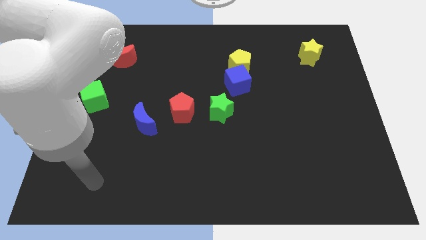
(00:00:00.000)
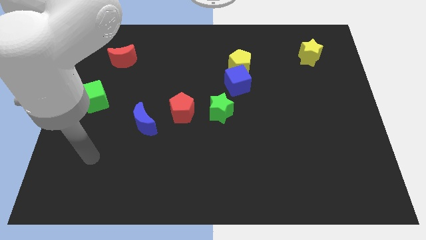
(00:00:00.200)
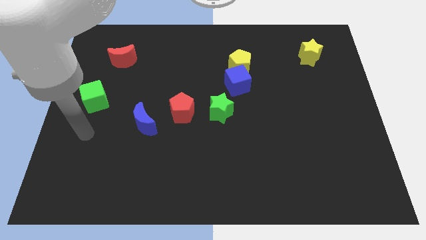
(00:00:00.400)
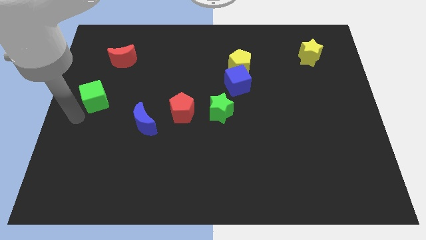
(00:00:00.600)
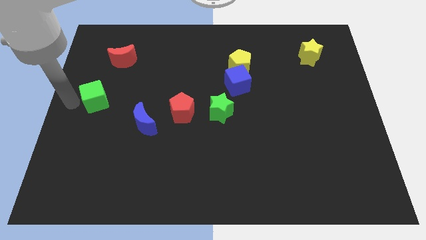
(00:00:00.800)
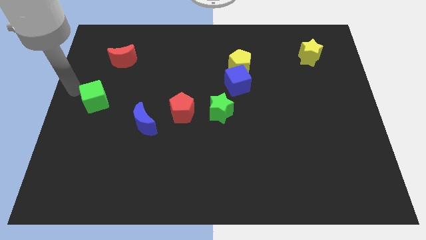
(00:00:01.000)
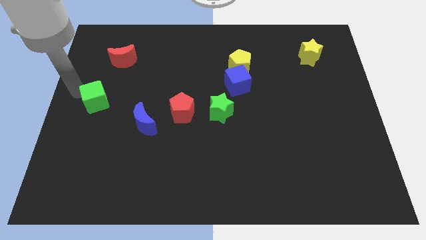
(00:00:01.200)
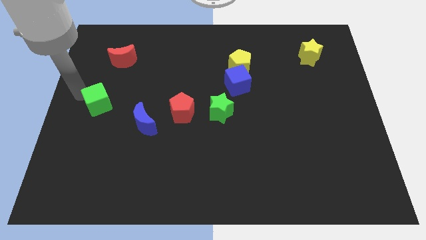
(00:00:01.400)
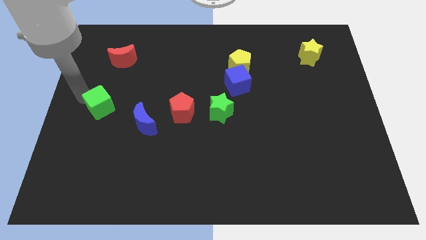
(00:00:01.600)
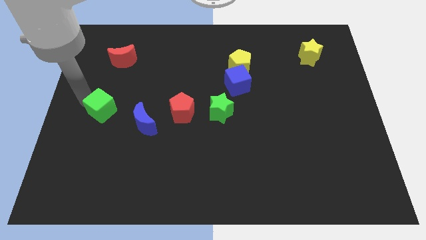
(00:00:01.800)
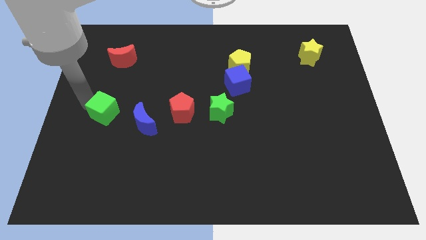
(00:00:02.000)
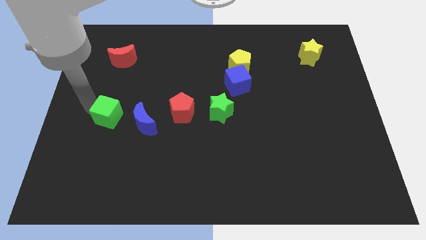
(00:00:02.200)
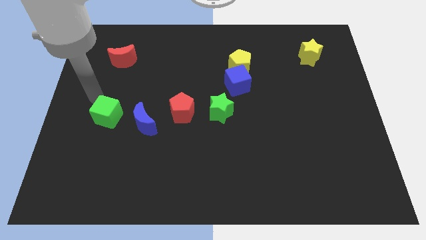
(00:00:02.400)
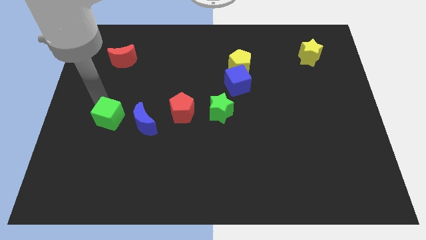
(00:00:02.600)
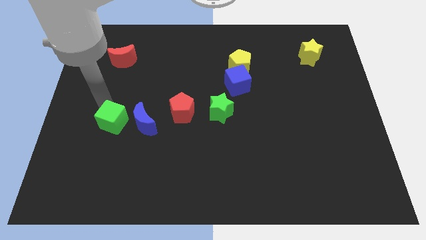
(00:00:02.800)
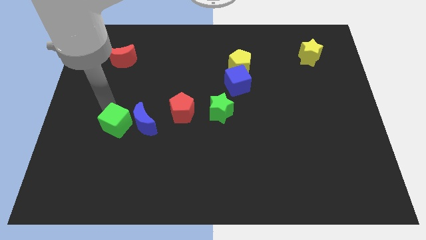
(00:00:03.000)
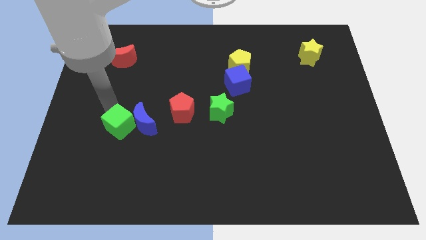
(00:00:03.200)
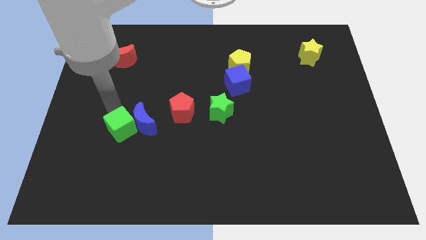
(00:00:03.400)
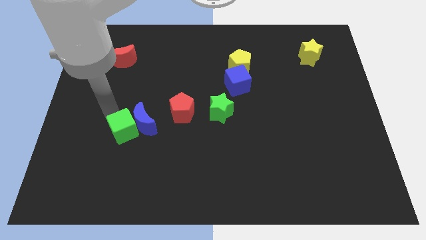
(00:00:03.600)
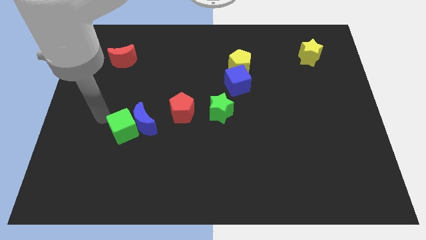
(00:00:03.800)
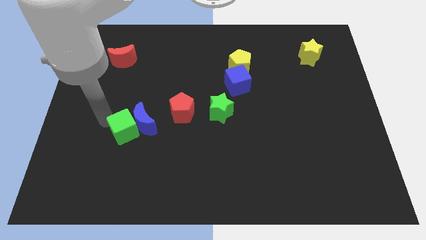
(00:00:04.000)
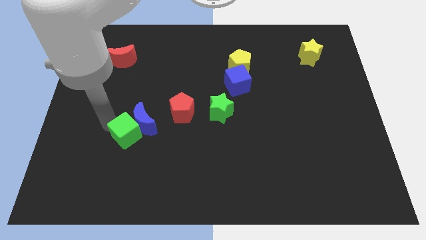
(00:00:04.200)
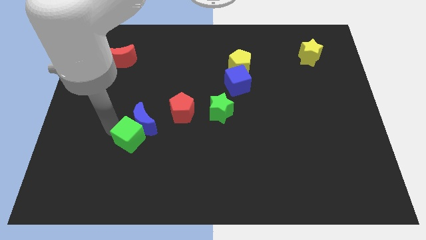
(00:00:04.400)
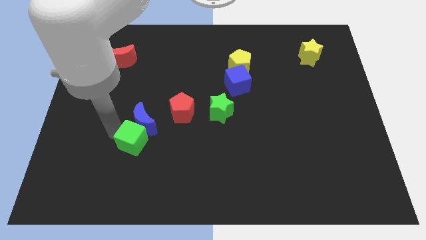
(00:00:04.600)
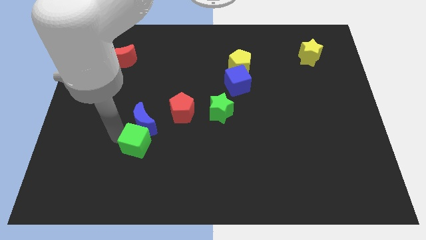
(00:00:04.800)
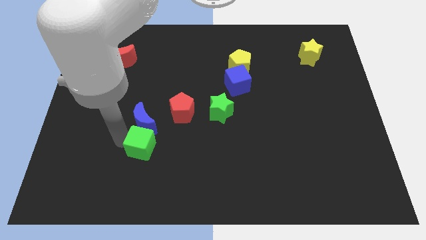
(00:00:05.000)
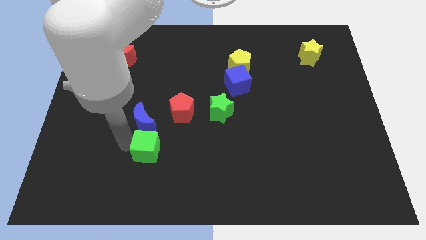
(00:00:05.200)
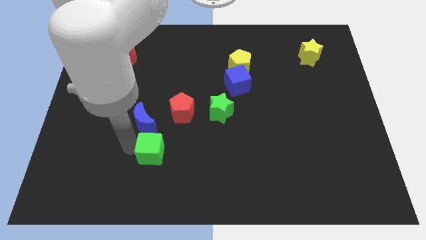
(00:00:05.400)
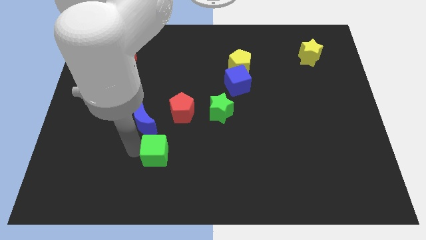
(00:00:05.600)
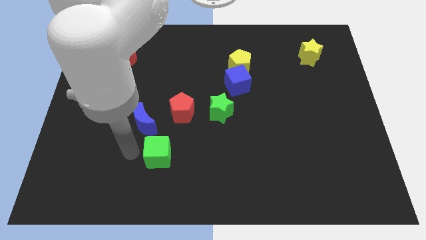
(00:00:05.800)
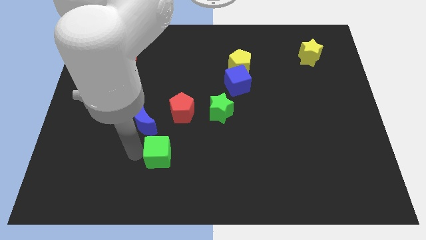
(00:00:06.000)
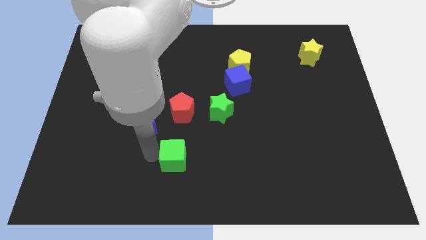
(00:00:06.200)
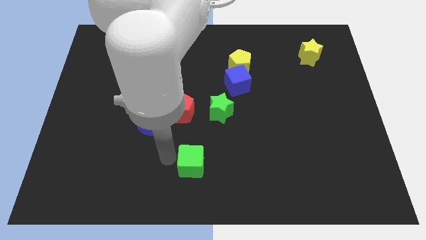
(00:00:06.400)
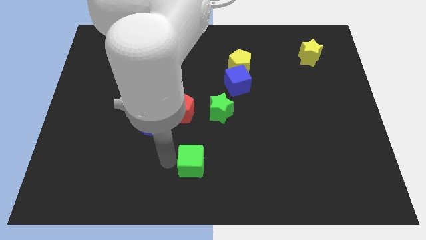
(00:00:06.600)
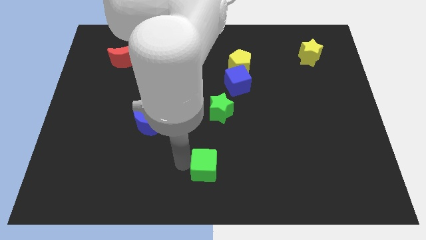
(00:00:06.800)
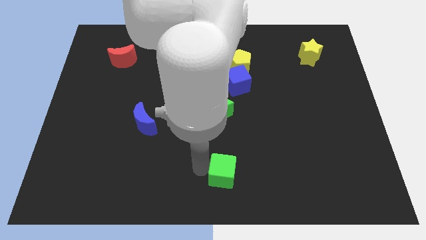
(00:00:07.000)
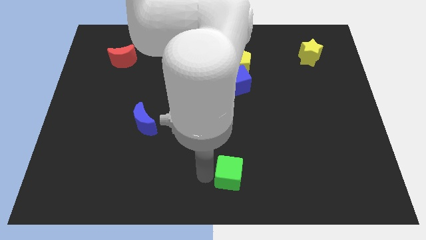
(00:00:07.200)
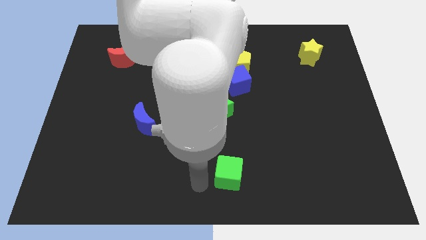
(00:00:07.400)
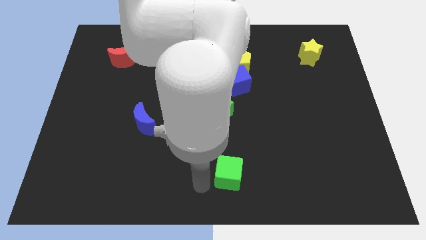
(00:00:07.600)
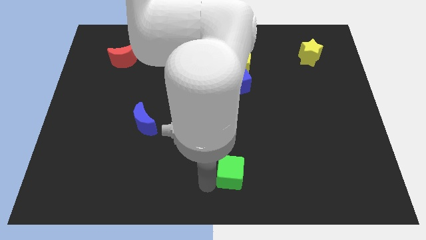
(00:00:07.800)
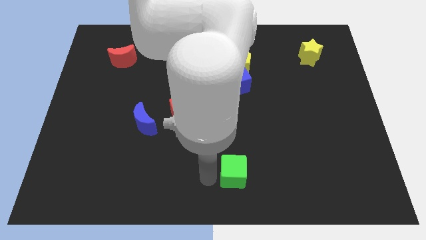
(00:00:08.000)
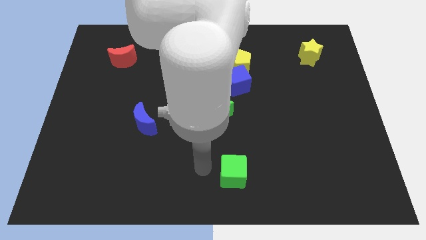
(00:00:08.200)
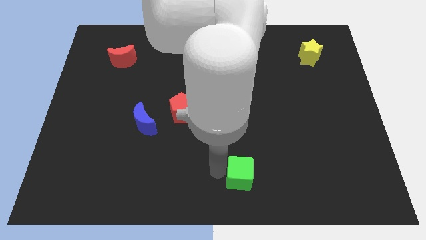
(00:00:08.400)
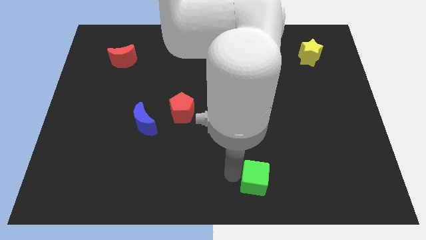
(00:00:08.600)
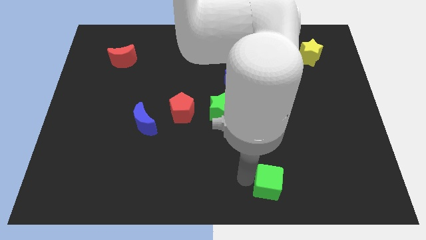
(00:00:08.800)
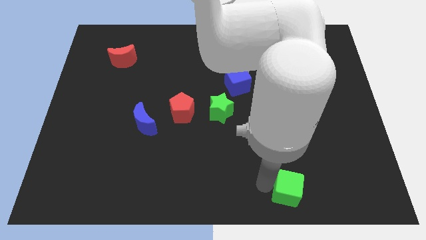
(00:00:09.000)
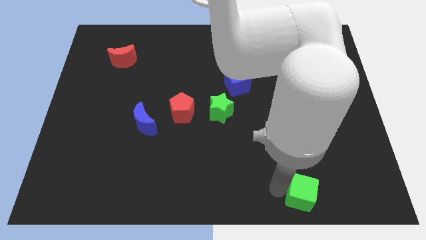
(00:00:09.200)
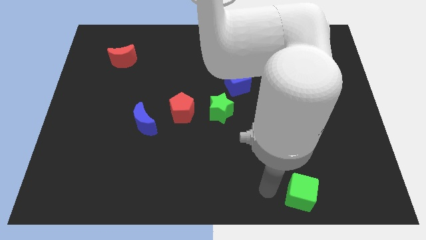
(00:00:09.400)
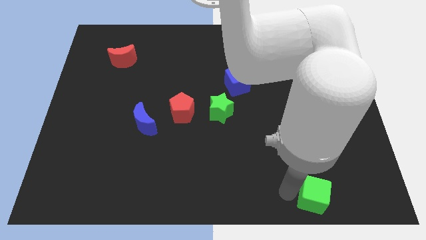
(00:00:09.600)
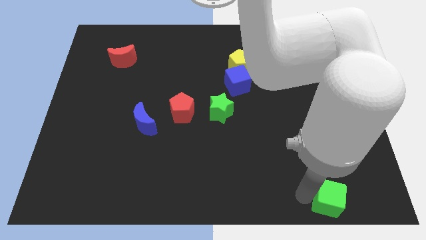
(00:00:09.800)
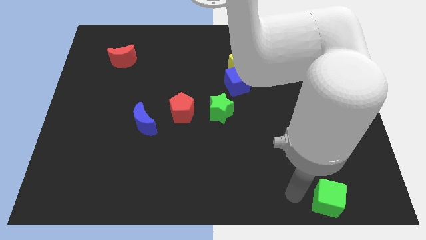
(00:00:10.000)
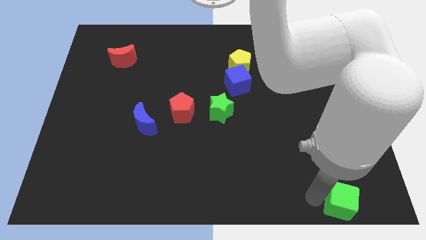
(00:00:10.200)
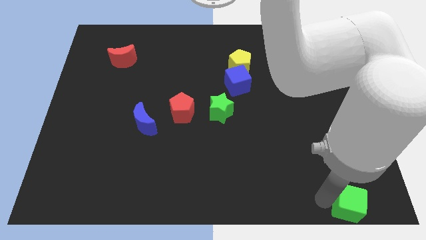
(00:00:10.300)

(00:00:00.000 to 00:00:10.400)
put the green cube to the bottom right

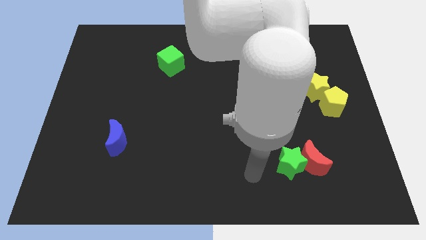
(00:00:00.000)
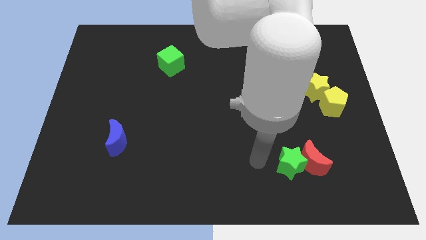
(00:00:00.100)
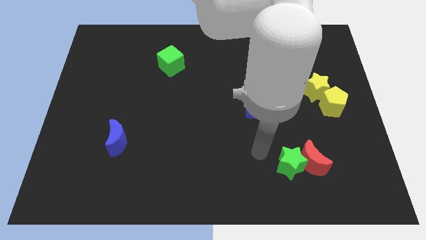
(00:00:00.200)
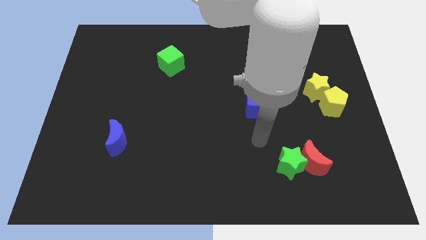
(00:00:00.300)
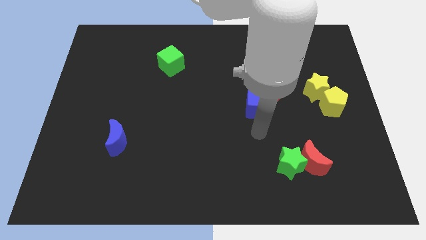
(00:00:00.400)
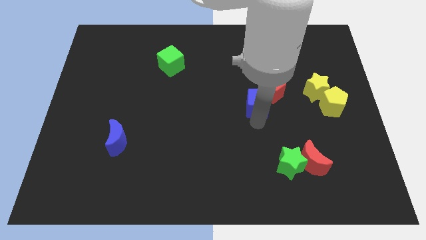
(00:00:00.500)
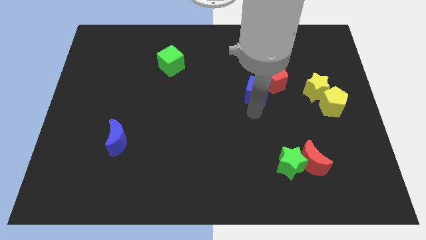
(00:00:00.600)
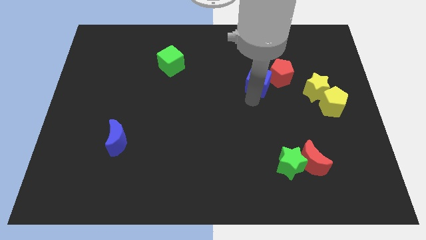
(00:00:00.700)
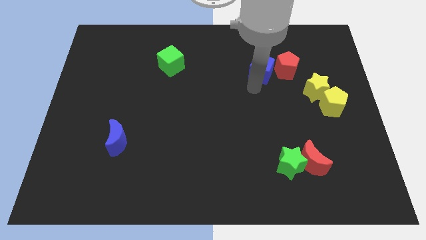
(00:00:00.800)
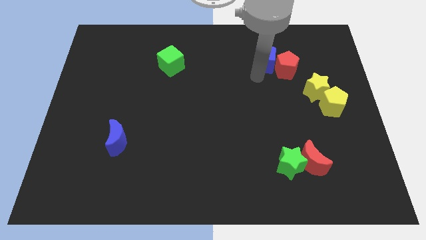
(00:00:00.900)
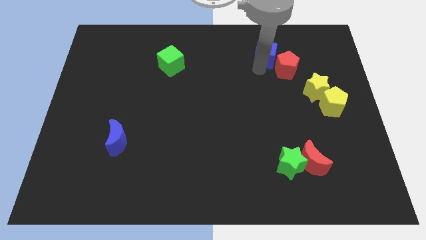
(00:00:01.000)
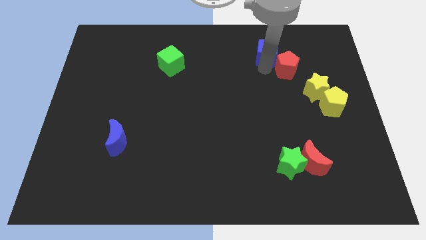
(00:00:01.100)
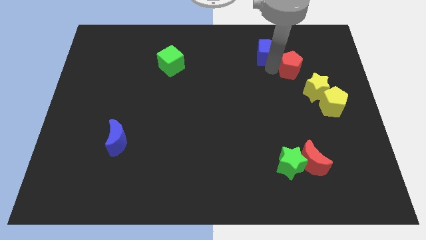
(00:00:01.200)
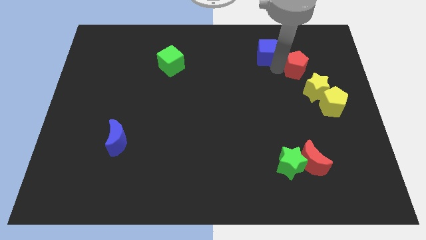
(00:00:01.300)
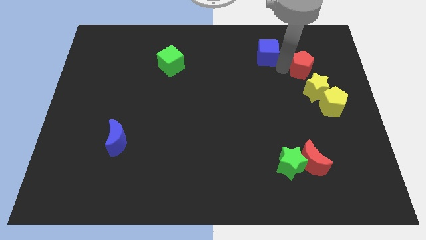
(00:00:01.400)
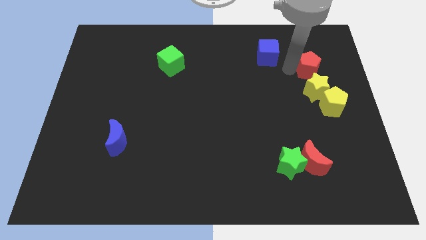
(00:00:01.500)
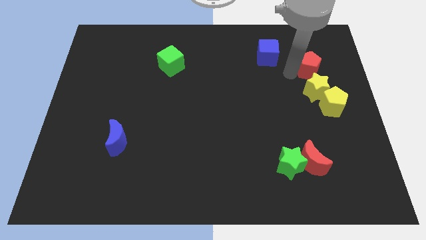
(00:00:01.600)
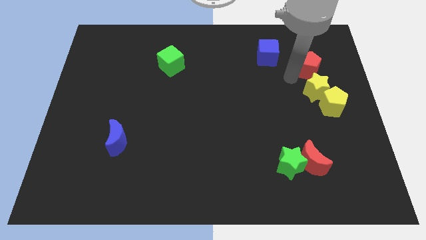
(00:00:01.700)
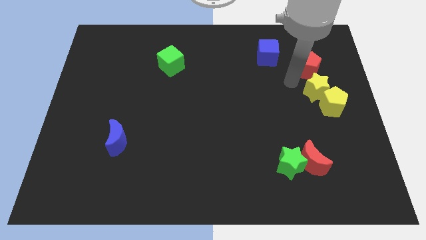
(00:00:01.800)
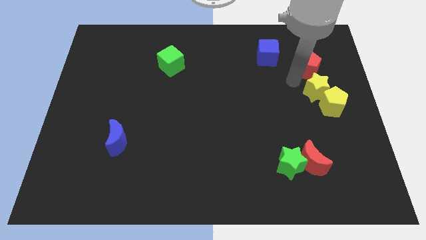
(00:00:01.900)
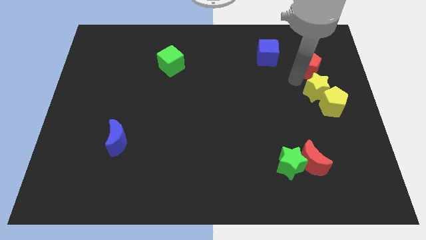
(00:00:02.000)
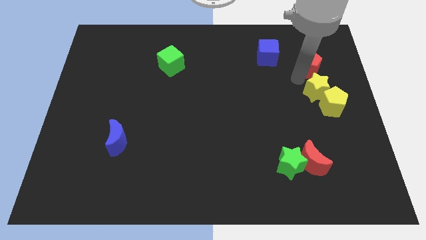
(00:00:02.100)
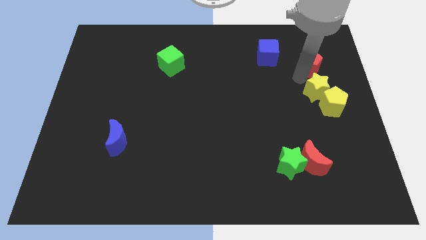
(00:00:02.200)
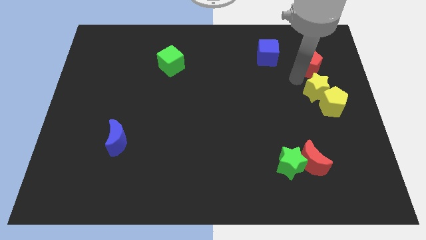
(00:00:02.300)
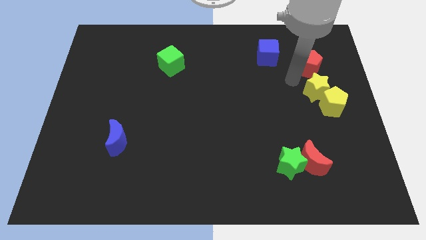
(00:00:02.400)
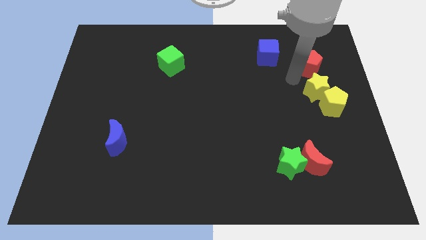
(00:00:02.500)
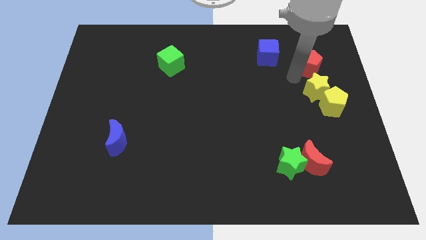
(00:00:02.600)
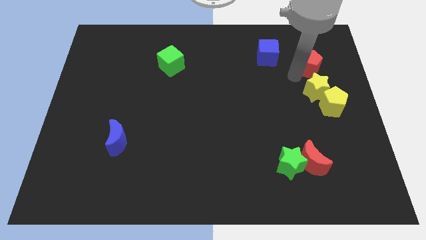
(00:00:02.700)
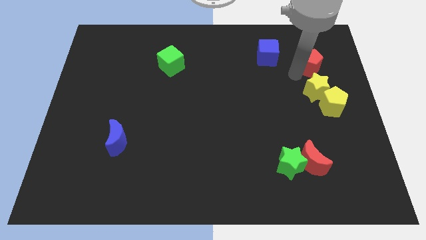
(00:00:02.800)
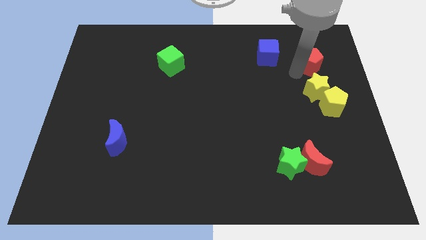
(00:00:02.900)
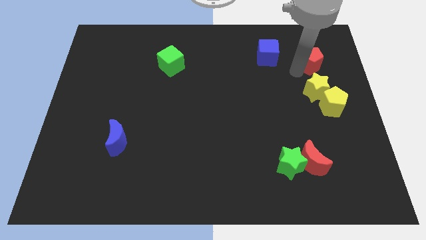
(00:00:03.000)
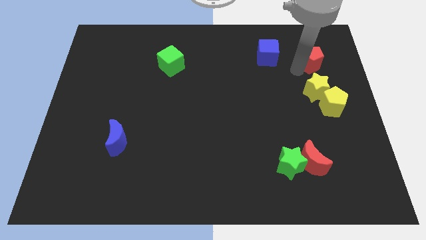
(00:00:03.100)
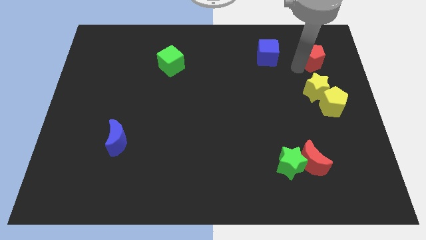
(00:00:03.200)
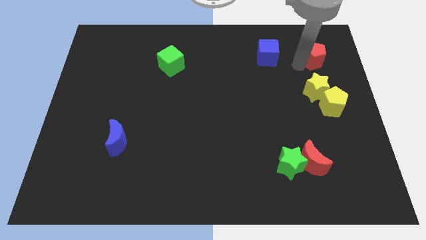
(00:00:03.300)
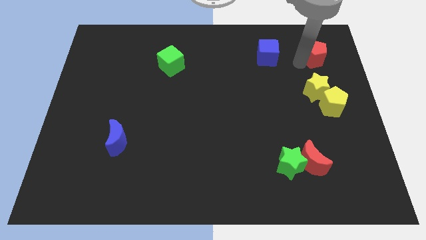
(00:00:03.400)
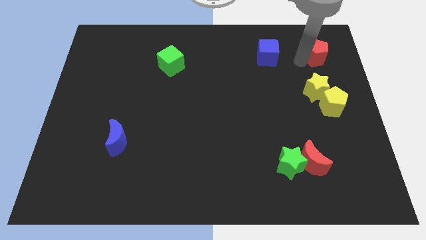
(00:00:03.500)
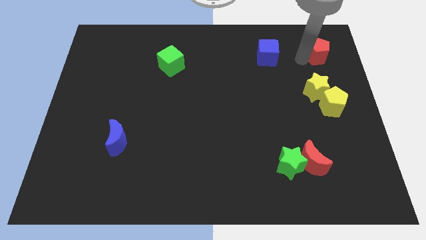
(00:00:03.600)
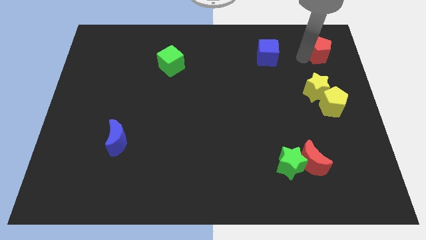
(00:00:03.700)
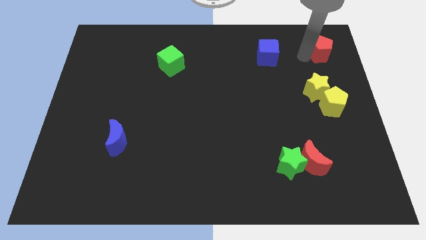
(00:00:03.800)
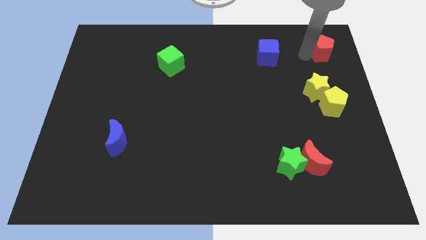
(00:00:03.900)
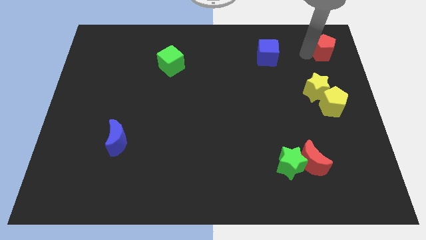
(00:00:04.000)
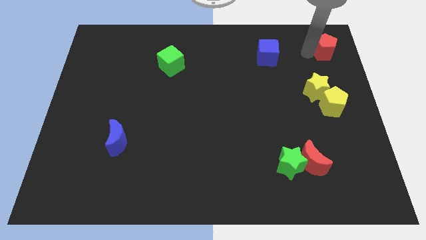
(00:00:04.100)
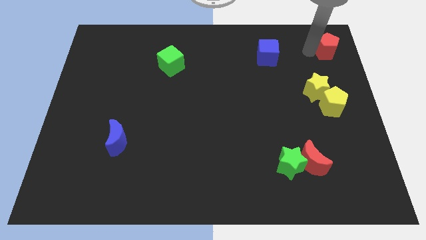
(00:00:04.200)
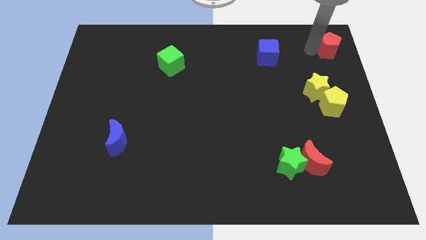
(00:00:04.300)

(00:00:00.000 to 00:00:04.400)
slide the red pentagon to the top right
